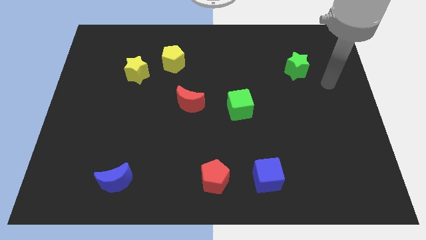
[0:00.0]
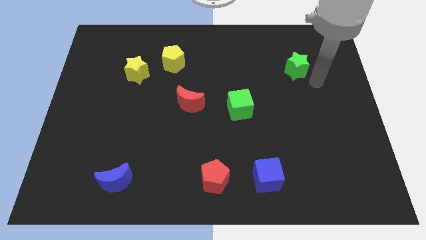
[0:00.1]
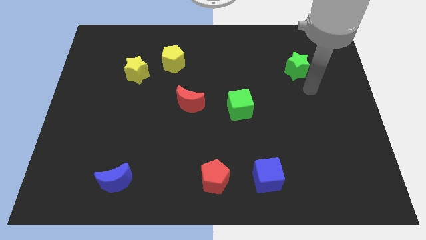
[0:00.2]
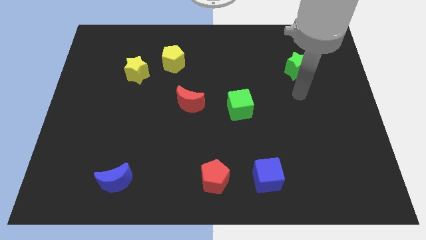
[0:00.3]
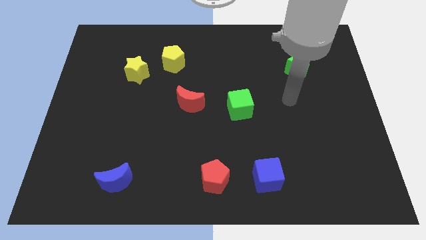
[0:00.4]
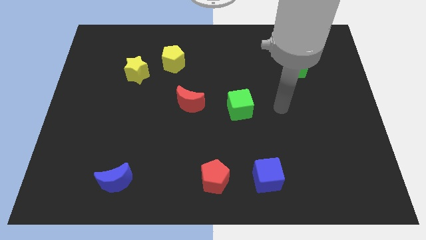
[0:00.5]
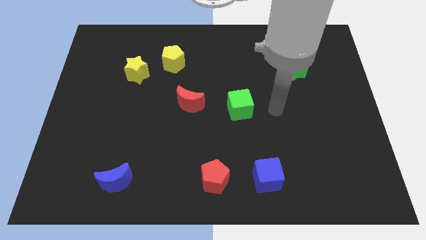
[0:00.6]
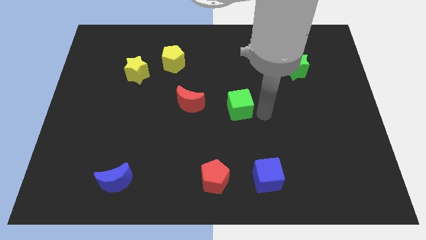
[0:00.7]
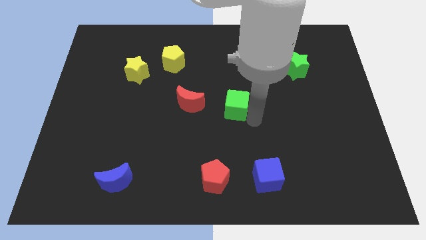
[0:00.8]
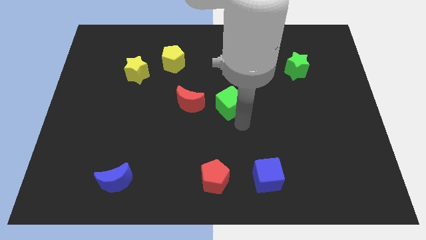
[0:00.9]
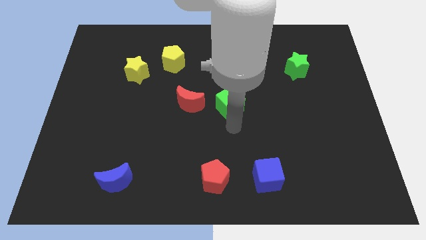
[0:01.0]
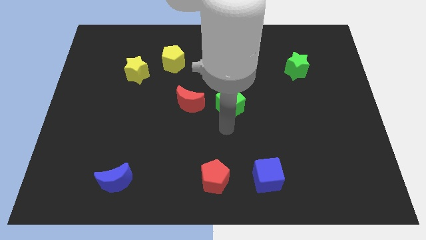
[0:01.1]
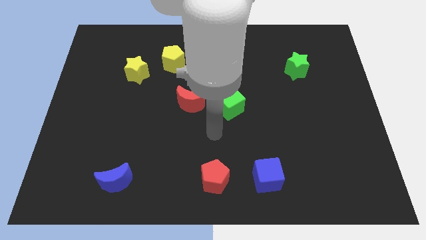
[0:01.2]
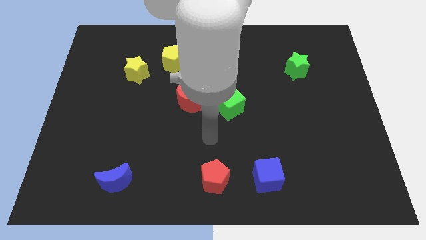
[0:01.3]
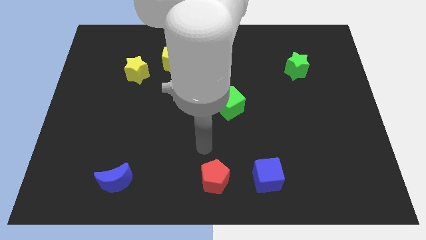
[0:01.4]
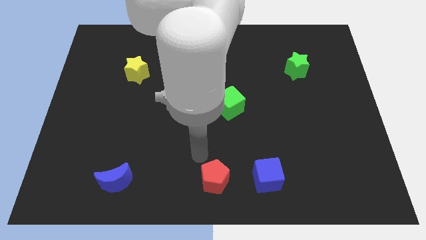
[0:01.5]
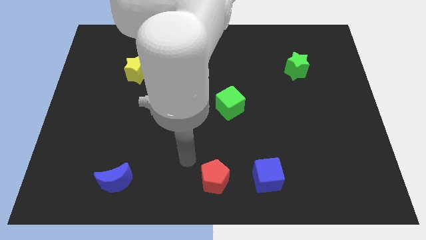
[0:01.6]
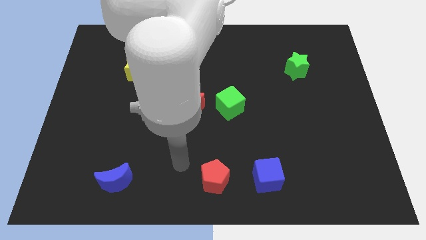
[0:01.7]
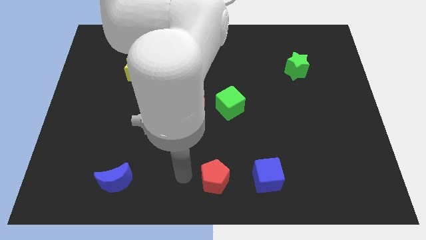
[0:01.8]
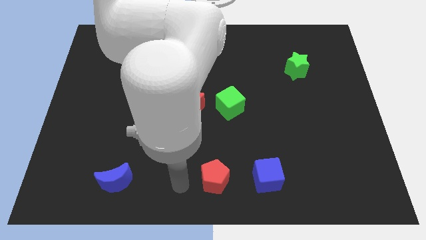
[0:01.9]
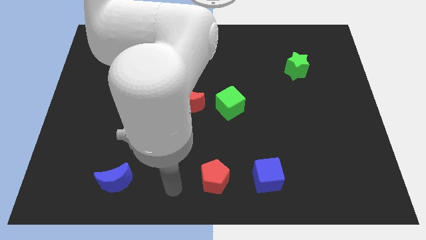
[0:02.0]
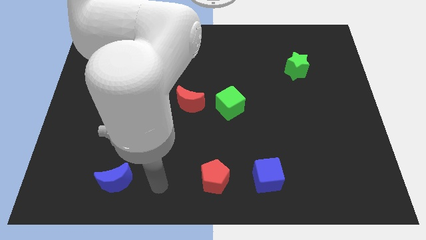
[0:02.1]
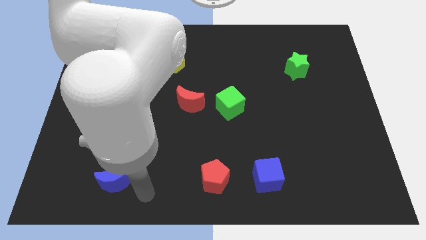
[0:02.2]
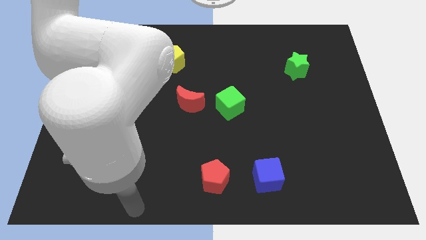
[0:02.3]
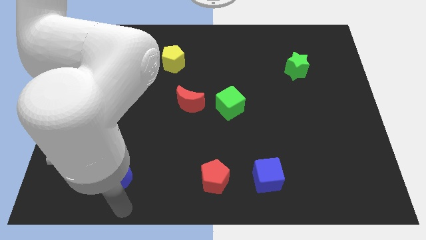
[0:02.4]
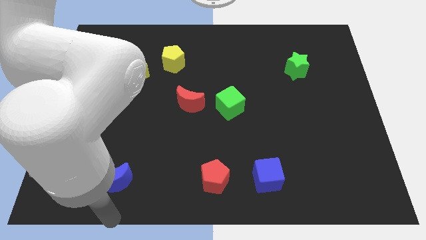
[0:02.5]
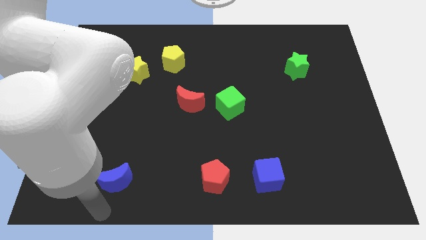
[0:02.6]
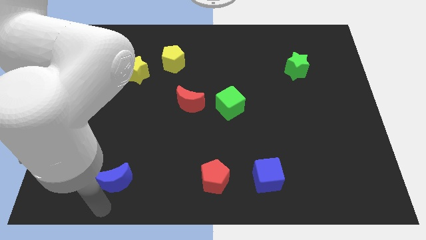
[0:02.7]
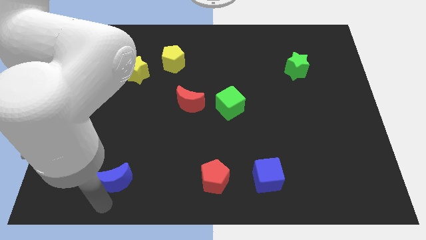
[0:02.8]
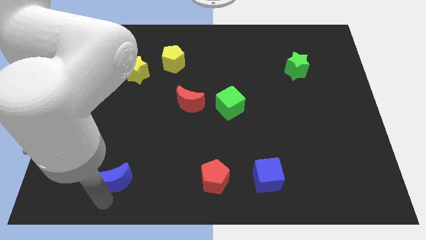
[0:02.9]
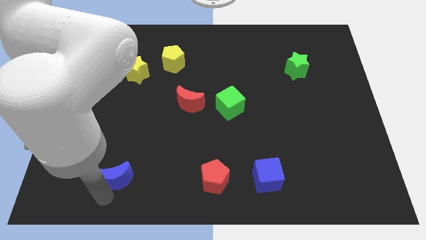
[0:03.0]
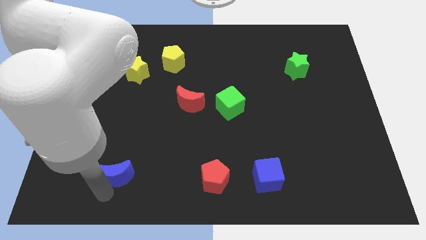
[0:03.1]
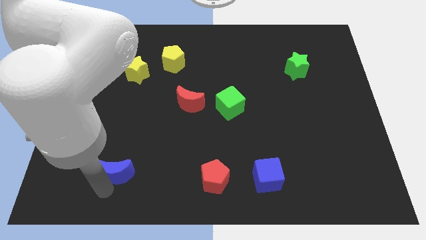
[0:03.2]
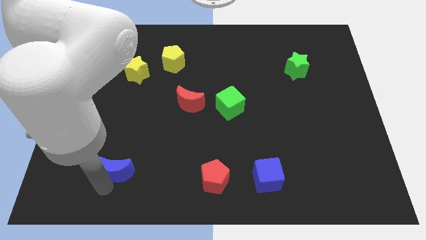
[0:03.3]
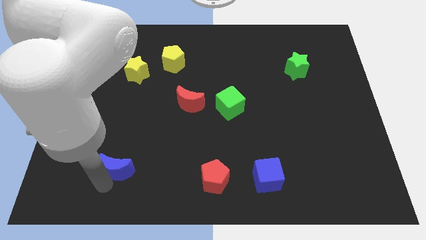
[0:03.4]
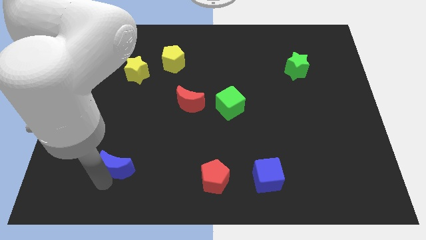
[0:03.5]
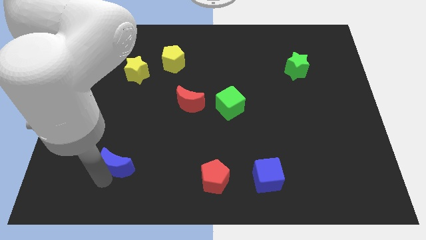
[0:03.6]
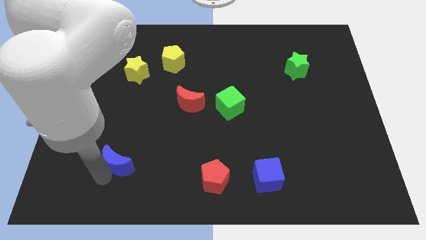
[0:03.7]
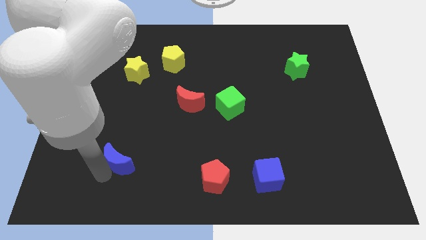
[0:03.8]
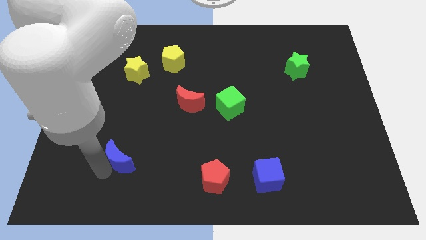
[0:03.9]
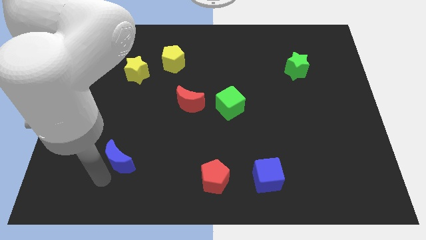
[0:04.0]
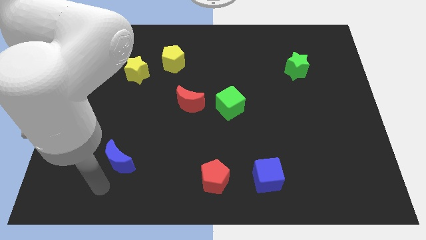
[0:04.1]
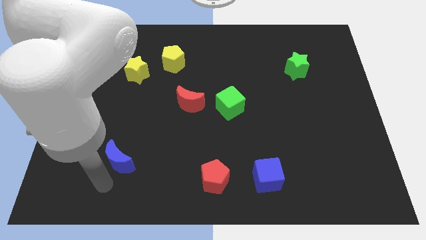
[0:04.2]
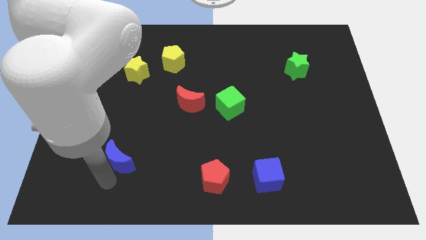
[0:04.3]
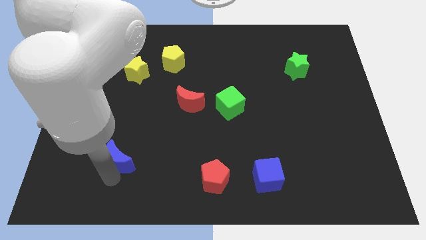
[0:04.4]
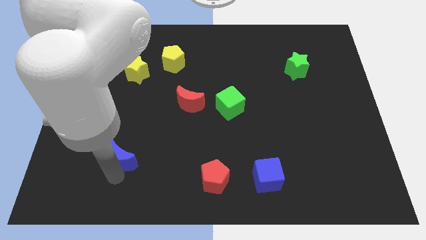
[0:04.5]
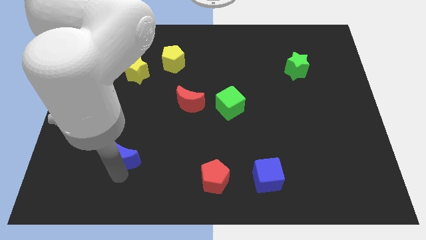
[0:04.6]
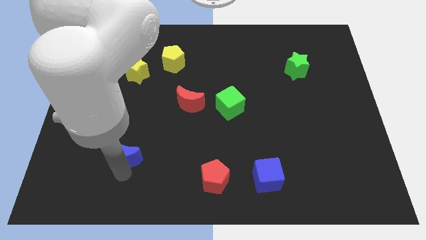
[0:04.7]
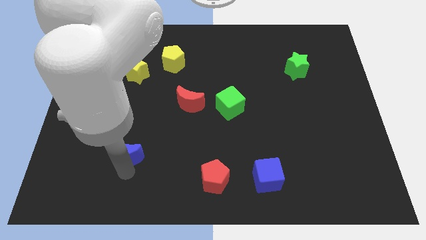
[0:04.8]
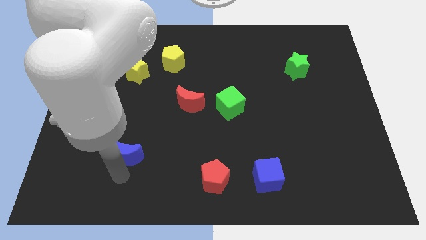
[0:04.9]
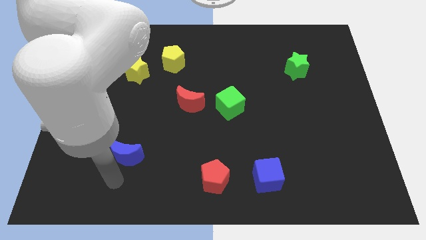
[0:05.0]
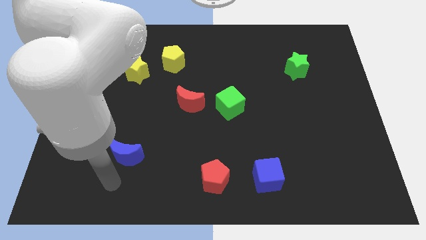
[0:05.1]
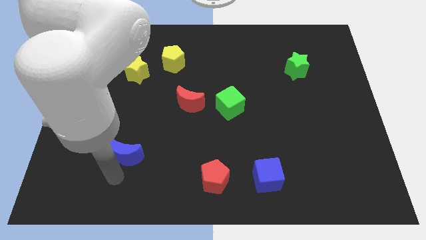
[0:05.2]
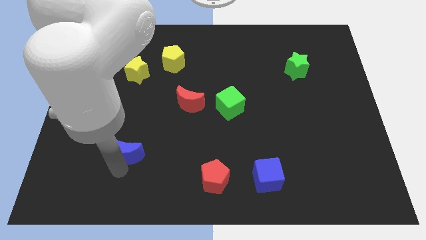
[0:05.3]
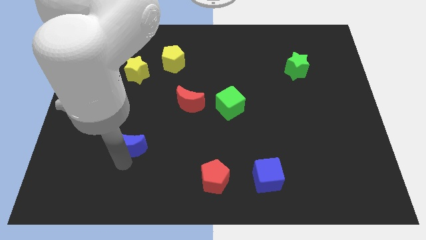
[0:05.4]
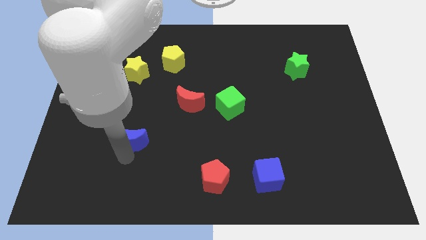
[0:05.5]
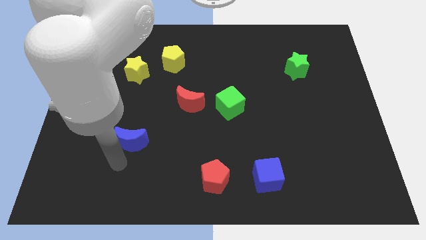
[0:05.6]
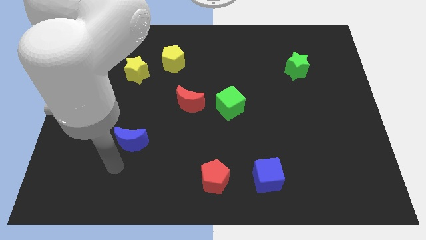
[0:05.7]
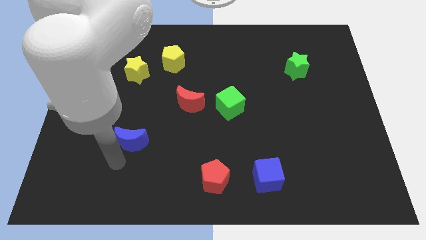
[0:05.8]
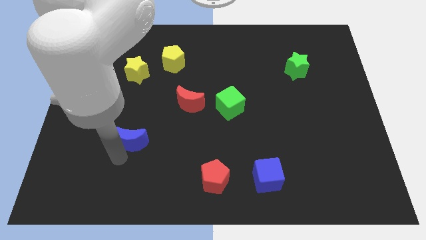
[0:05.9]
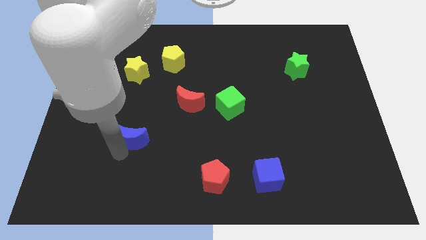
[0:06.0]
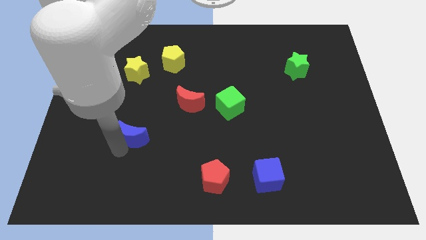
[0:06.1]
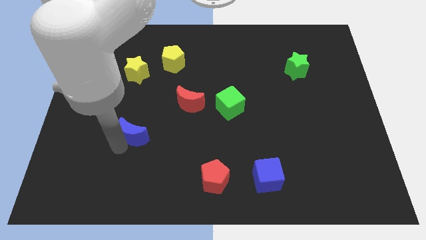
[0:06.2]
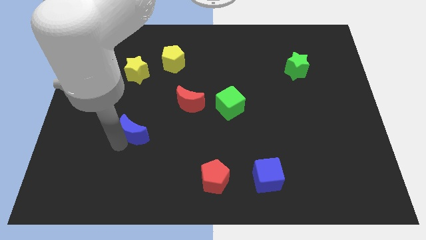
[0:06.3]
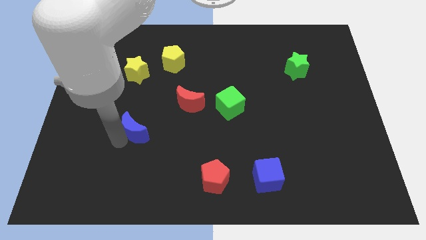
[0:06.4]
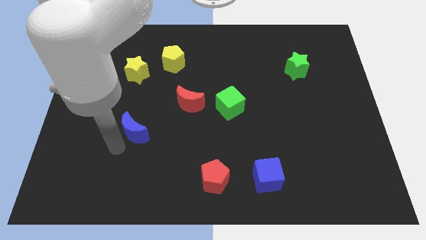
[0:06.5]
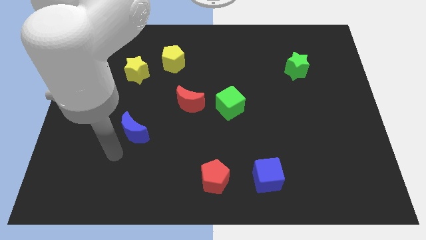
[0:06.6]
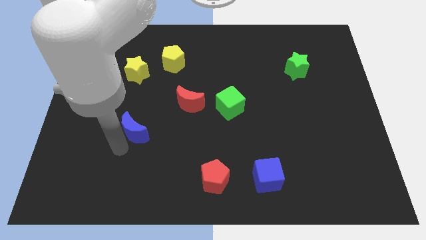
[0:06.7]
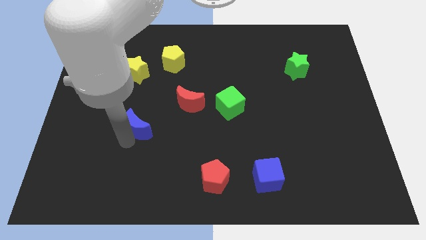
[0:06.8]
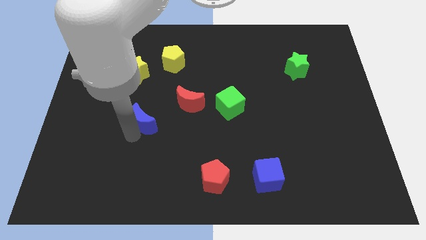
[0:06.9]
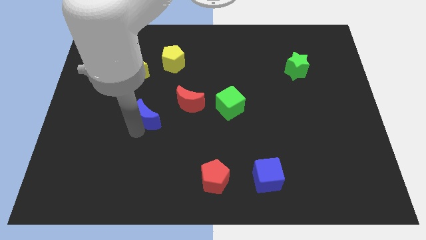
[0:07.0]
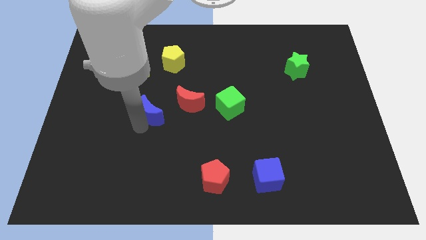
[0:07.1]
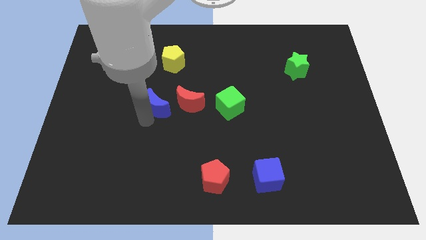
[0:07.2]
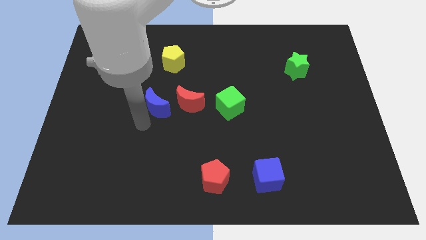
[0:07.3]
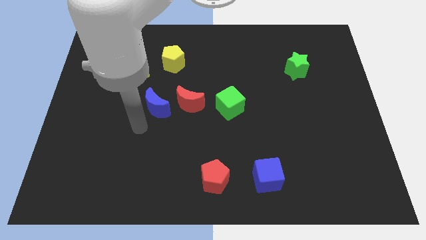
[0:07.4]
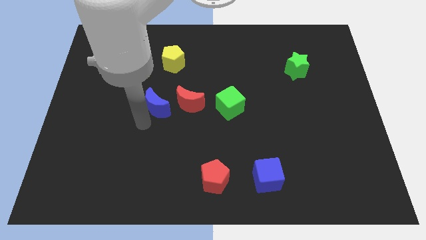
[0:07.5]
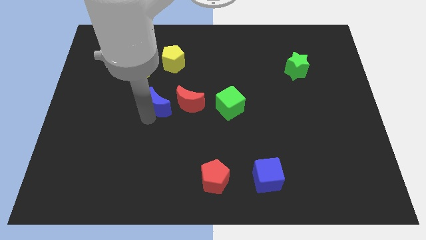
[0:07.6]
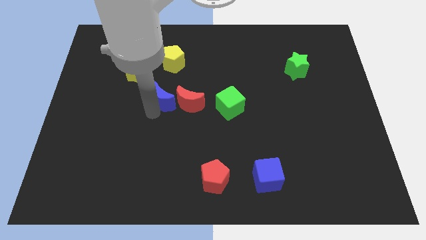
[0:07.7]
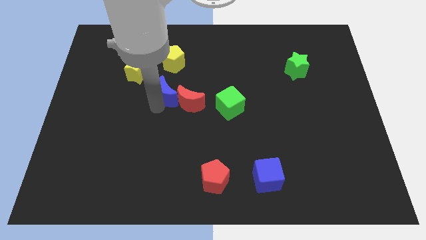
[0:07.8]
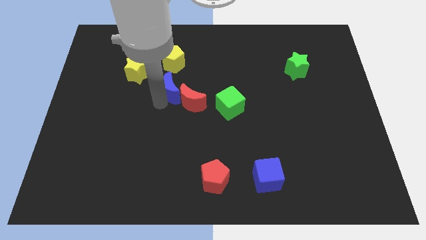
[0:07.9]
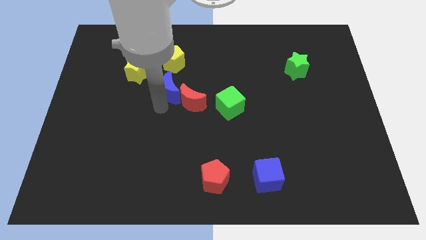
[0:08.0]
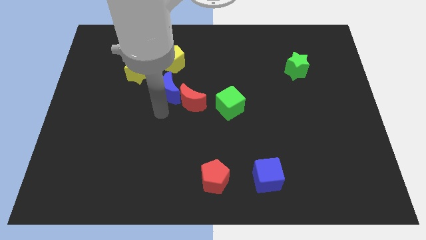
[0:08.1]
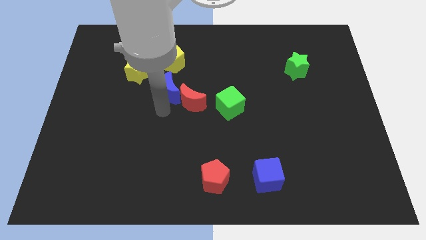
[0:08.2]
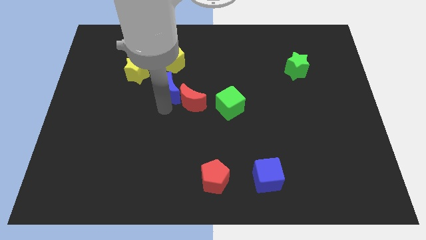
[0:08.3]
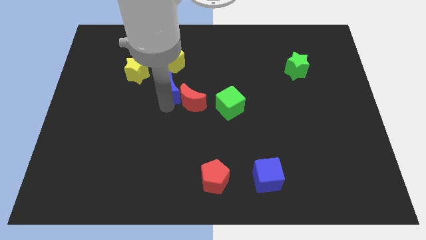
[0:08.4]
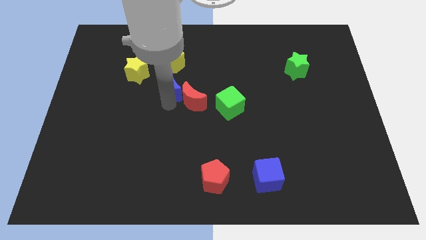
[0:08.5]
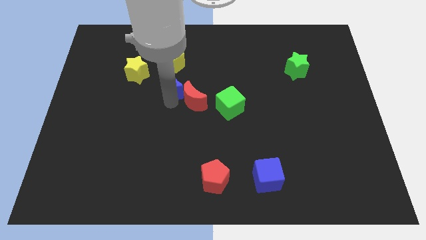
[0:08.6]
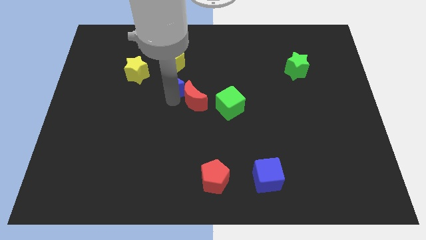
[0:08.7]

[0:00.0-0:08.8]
slide the blue moon to the right side of the yellow star
